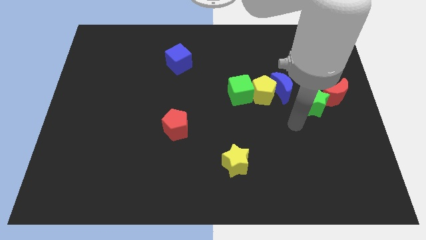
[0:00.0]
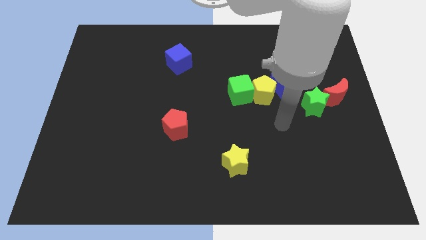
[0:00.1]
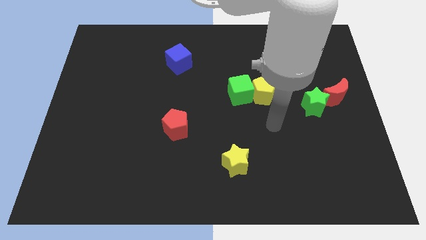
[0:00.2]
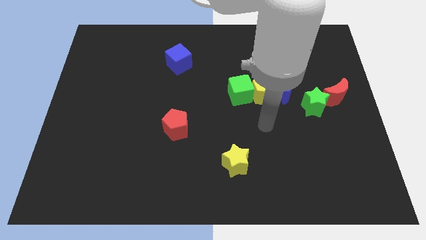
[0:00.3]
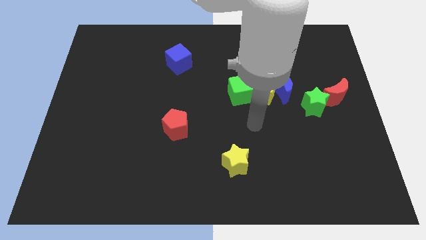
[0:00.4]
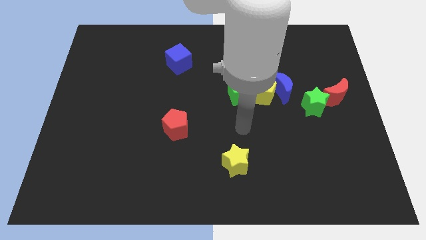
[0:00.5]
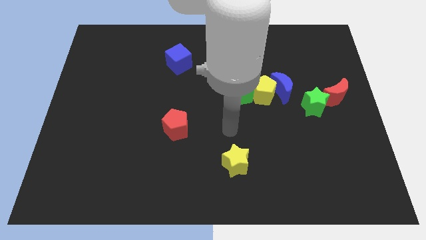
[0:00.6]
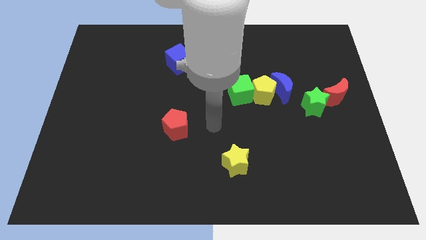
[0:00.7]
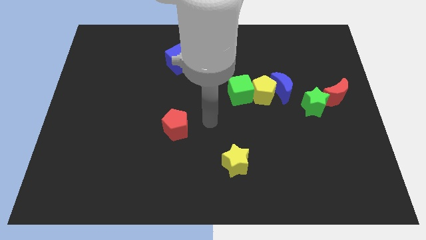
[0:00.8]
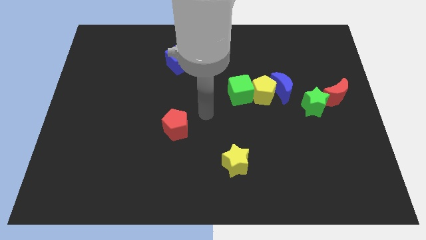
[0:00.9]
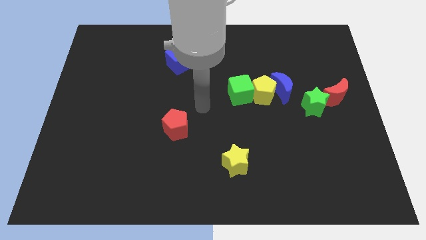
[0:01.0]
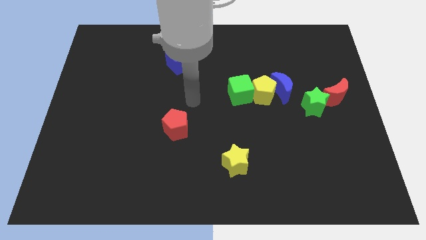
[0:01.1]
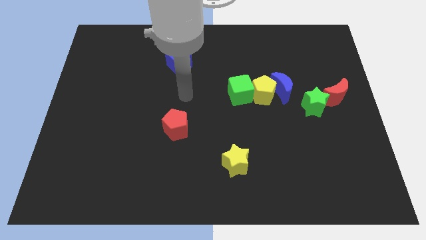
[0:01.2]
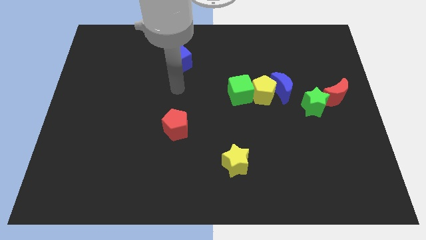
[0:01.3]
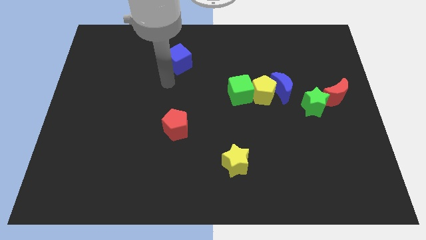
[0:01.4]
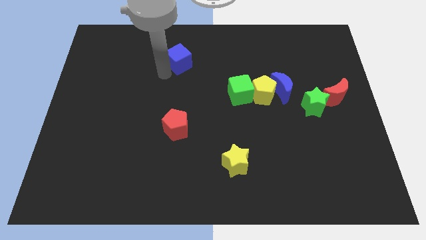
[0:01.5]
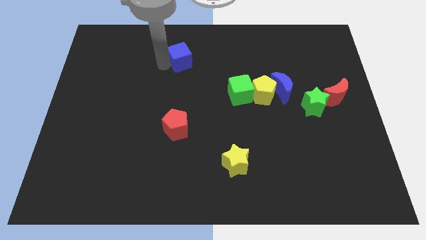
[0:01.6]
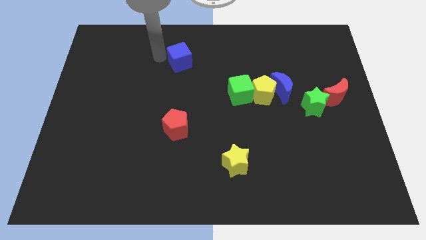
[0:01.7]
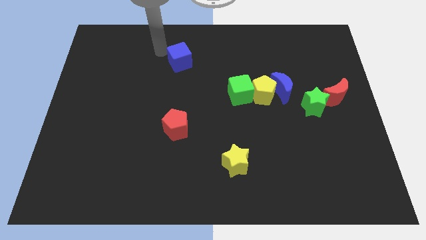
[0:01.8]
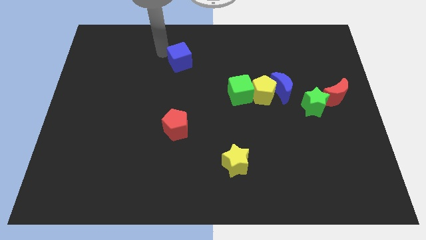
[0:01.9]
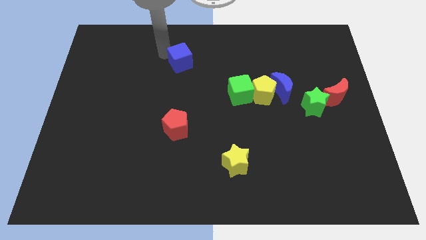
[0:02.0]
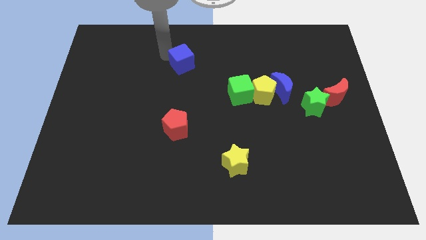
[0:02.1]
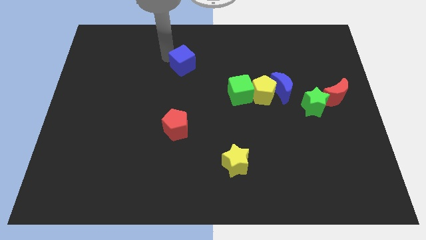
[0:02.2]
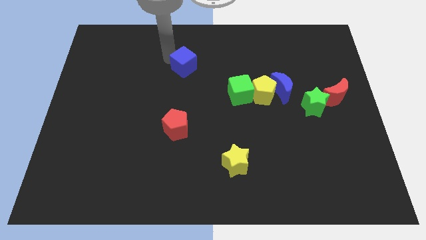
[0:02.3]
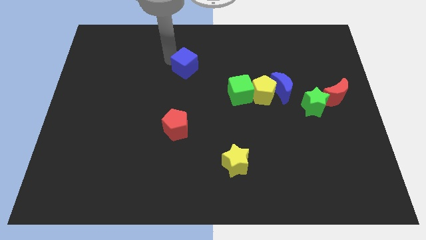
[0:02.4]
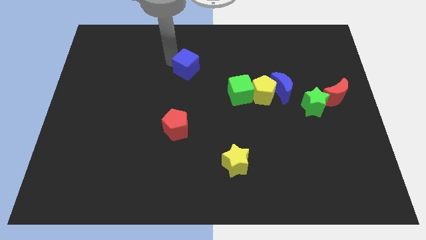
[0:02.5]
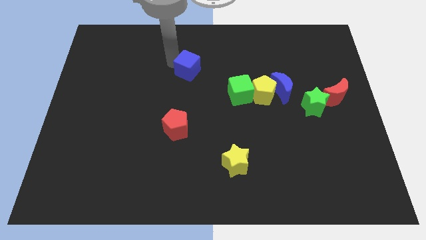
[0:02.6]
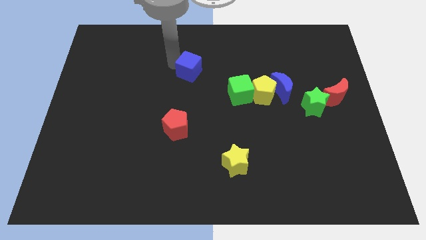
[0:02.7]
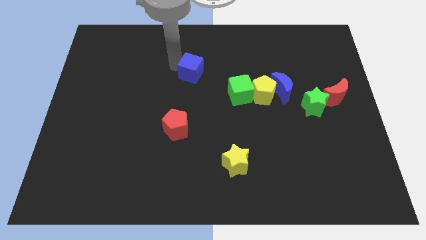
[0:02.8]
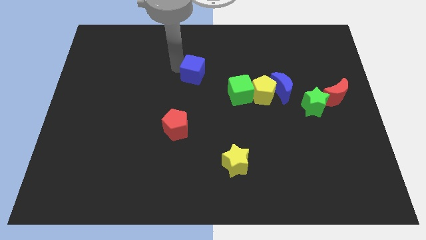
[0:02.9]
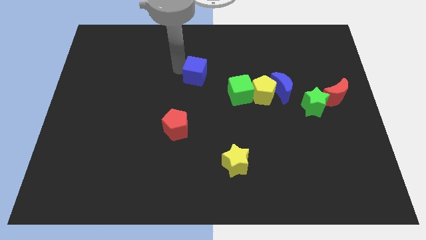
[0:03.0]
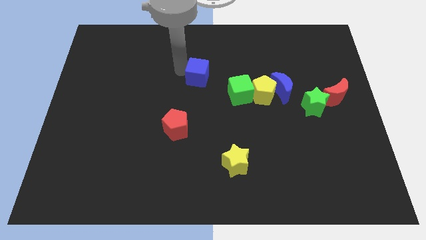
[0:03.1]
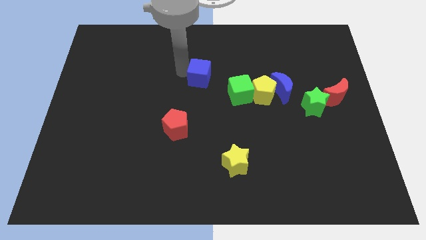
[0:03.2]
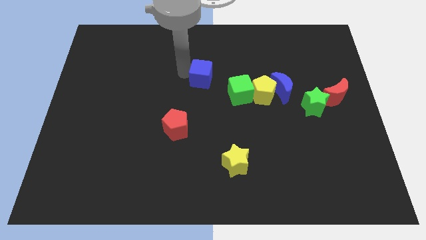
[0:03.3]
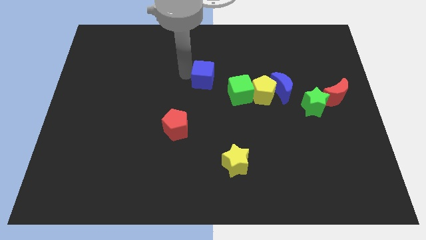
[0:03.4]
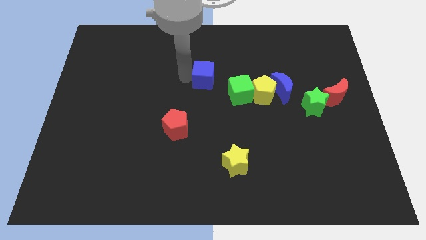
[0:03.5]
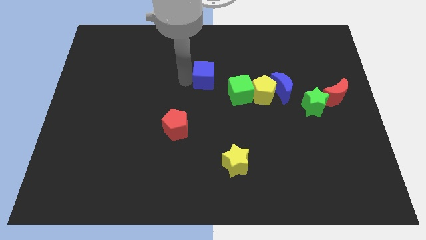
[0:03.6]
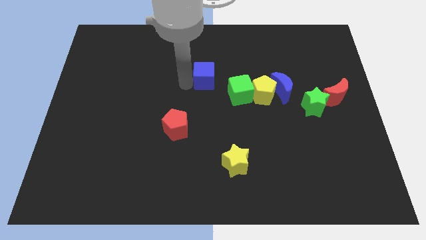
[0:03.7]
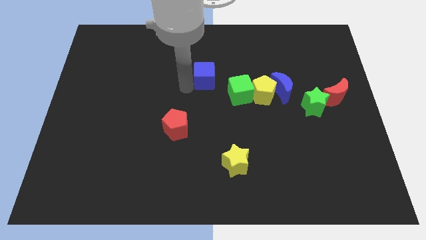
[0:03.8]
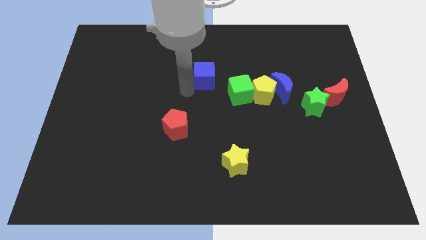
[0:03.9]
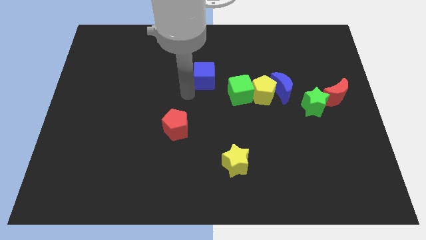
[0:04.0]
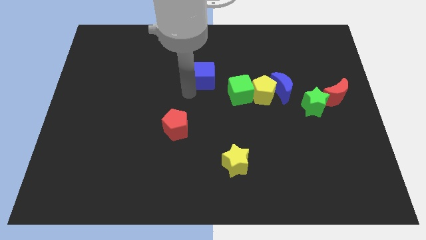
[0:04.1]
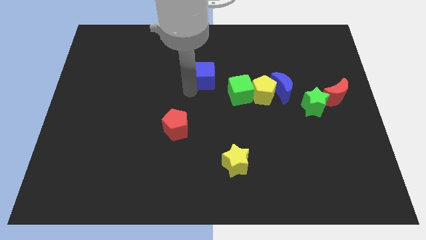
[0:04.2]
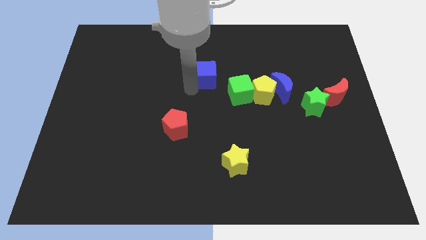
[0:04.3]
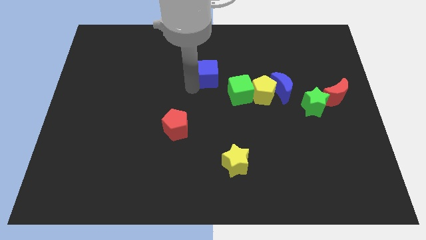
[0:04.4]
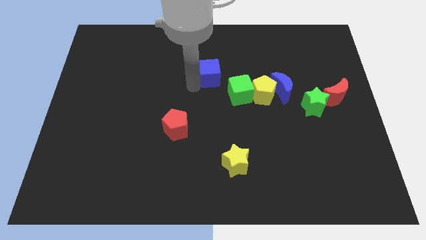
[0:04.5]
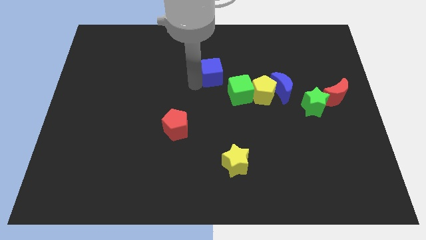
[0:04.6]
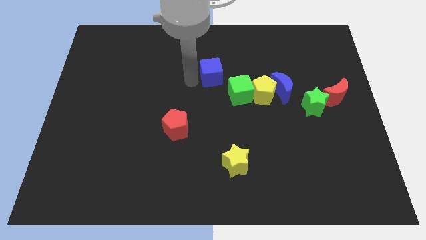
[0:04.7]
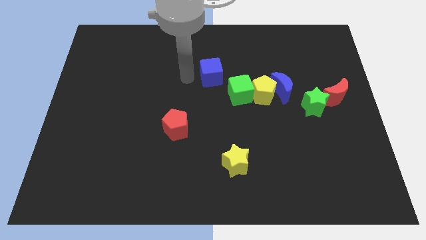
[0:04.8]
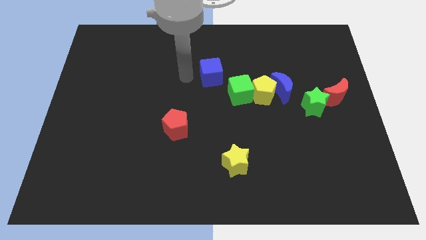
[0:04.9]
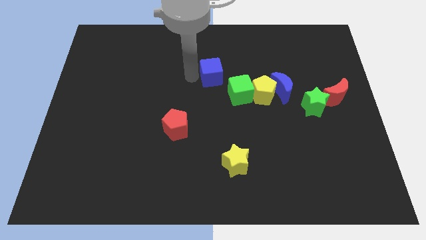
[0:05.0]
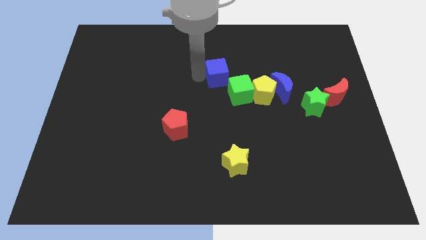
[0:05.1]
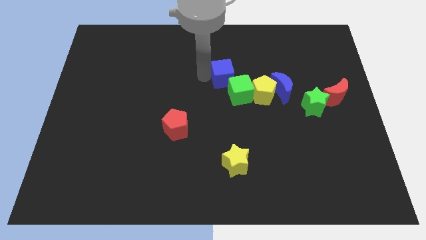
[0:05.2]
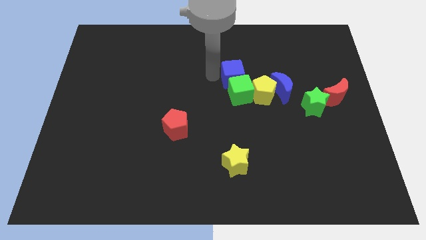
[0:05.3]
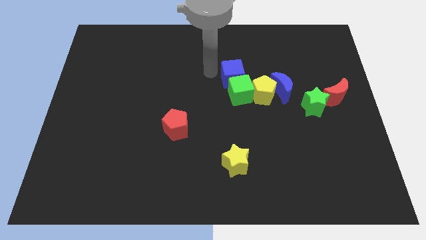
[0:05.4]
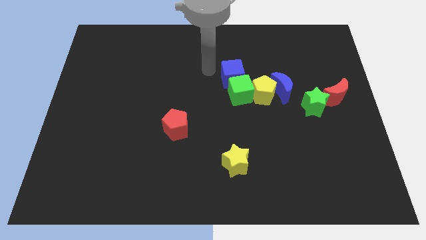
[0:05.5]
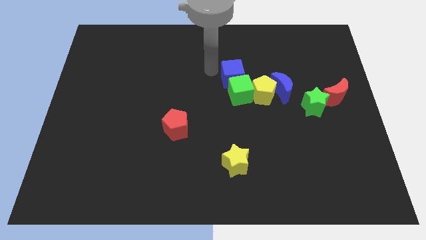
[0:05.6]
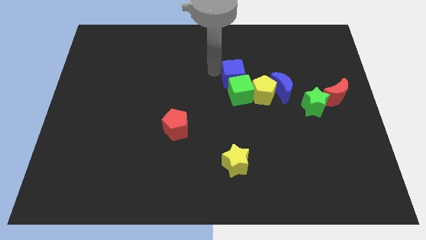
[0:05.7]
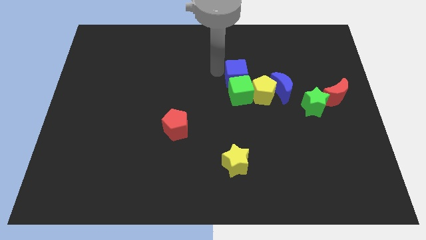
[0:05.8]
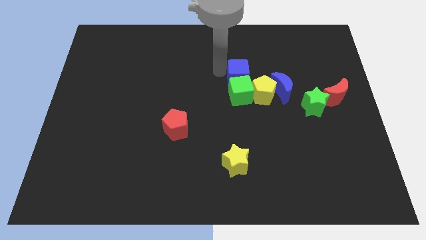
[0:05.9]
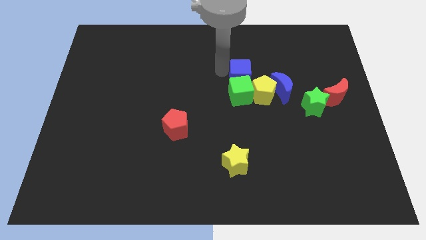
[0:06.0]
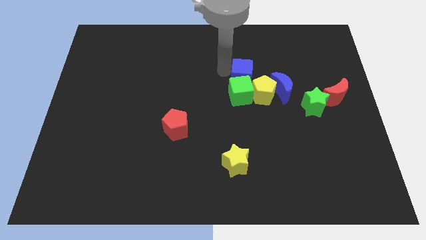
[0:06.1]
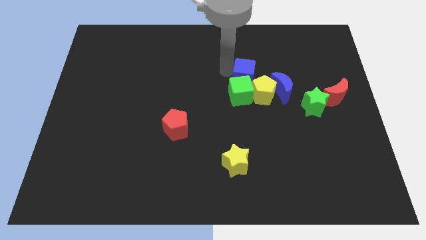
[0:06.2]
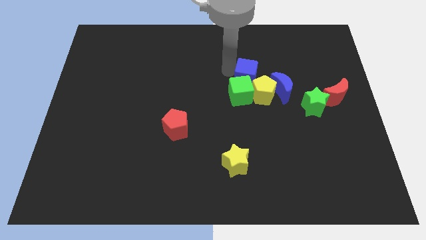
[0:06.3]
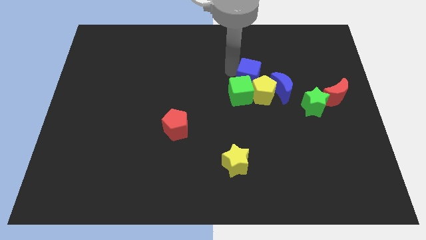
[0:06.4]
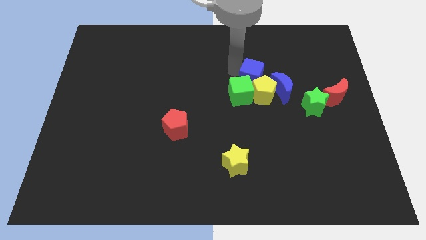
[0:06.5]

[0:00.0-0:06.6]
put the blue cube close to the yellow pentagon

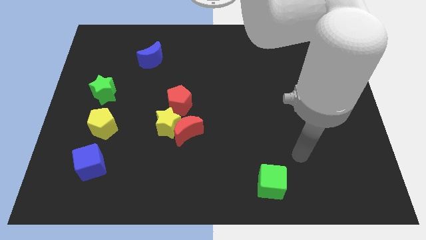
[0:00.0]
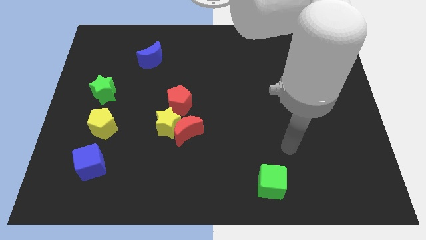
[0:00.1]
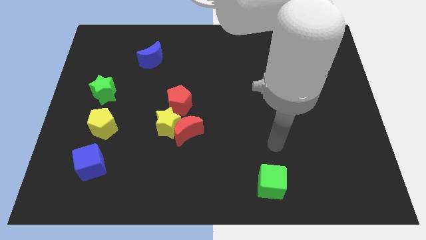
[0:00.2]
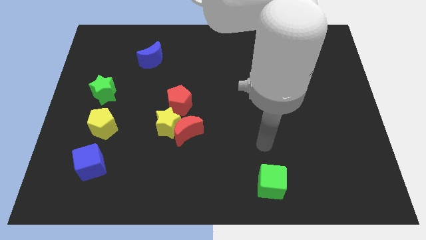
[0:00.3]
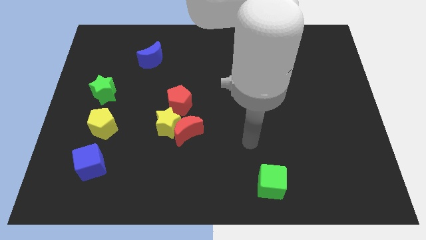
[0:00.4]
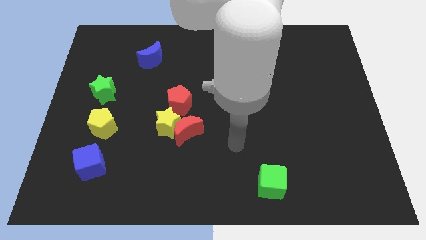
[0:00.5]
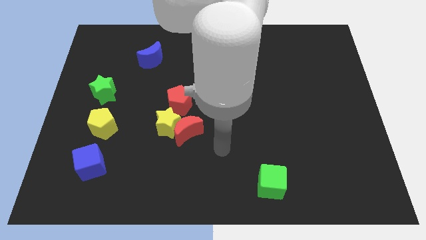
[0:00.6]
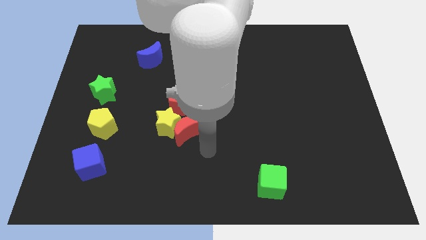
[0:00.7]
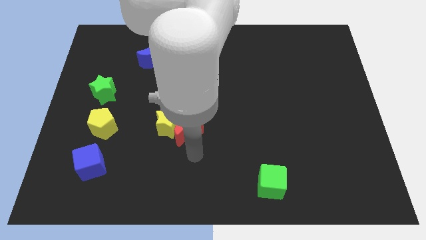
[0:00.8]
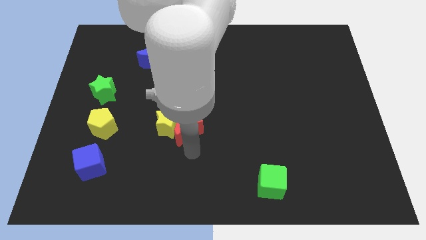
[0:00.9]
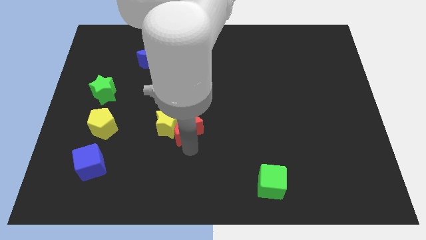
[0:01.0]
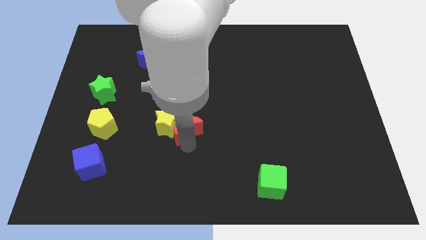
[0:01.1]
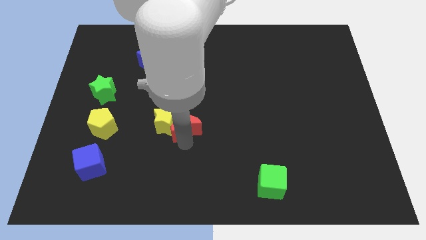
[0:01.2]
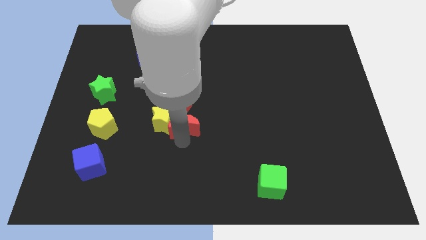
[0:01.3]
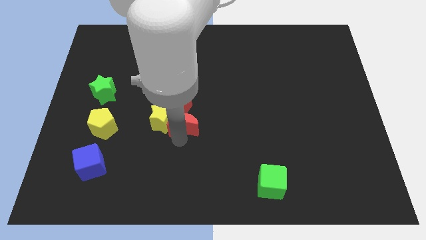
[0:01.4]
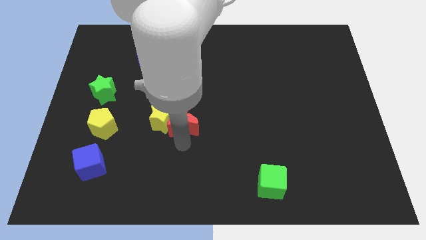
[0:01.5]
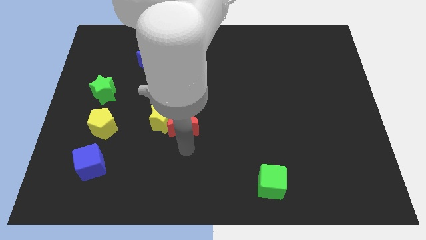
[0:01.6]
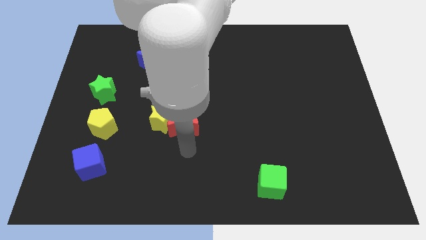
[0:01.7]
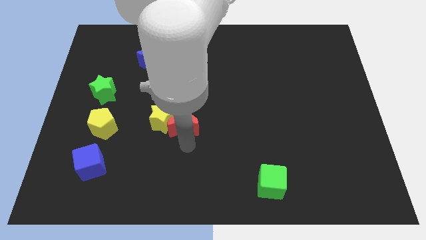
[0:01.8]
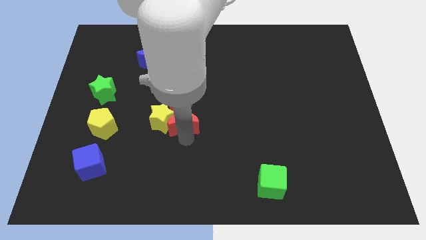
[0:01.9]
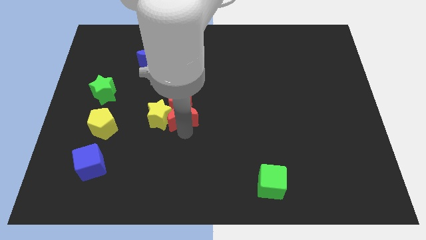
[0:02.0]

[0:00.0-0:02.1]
push the red moon next to the red pentagon
